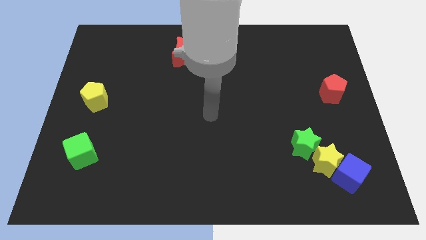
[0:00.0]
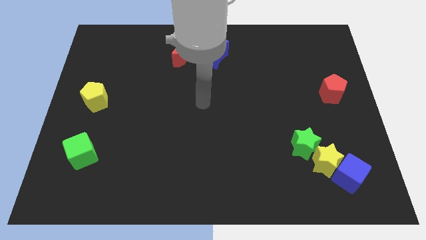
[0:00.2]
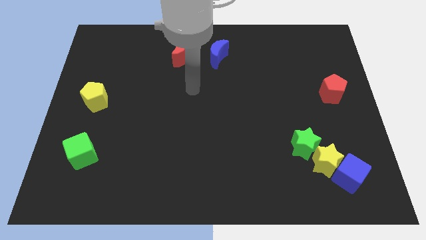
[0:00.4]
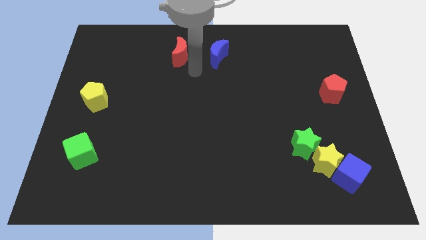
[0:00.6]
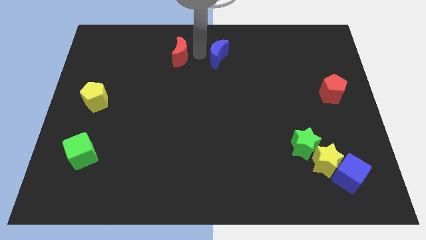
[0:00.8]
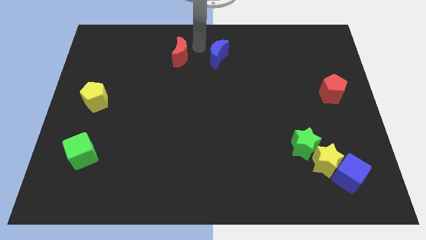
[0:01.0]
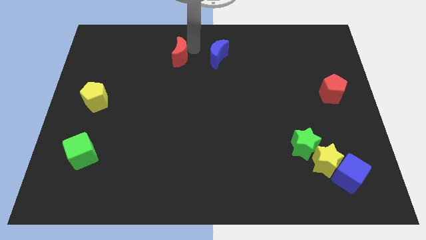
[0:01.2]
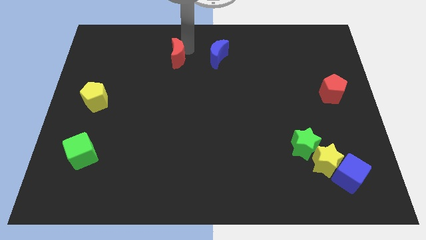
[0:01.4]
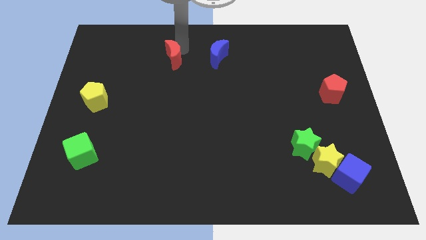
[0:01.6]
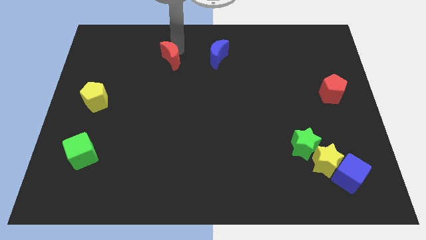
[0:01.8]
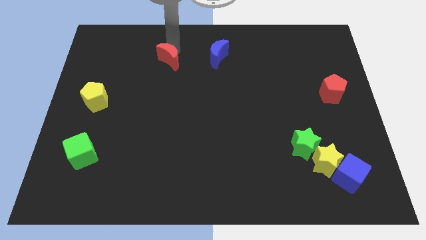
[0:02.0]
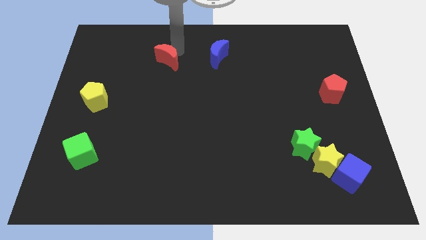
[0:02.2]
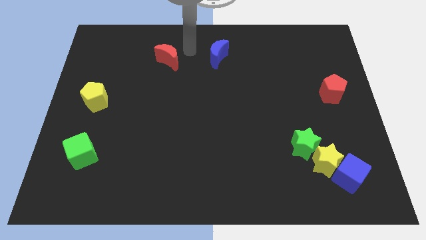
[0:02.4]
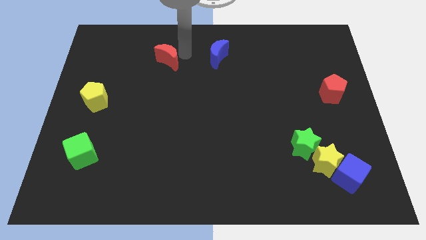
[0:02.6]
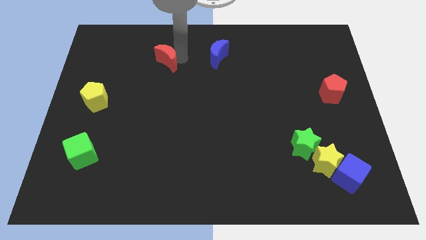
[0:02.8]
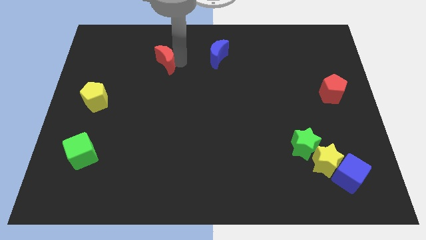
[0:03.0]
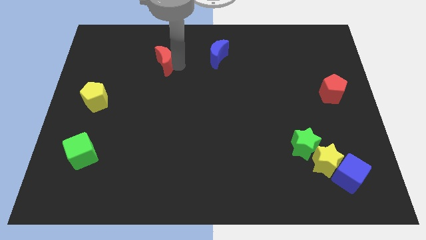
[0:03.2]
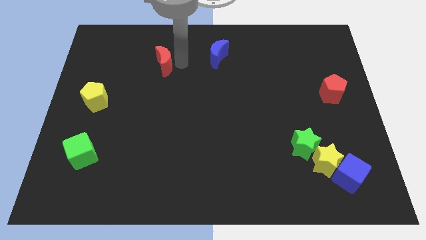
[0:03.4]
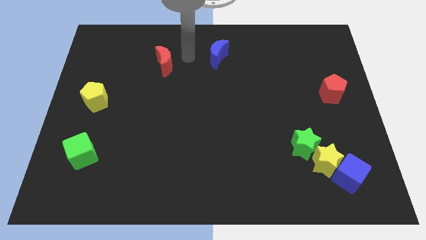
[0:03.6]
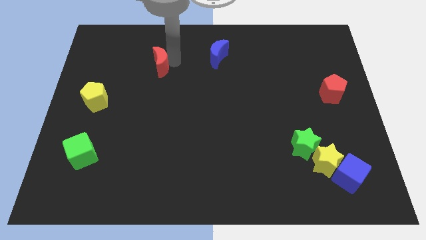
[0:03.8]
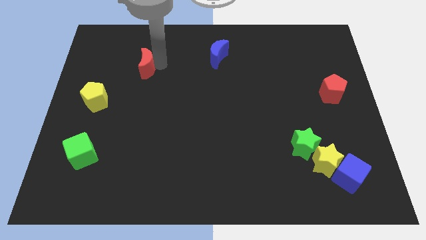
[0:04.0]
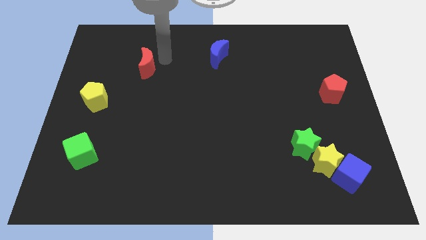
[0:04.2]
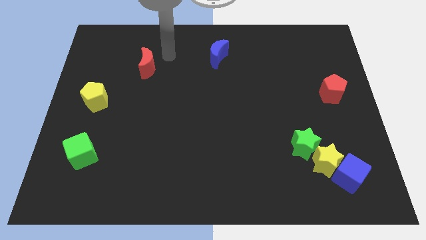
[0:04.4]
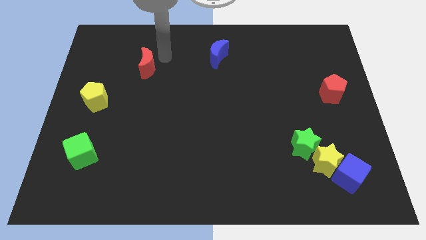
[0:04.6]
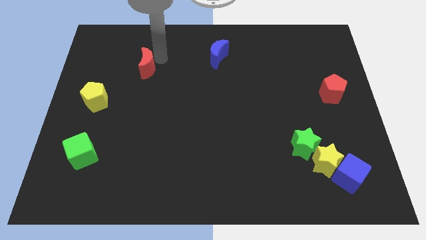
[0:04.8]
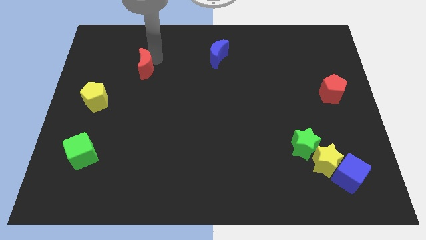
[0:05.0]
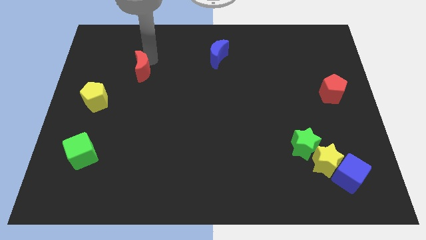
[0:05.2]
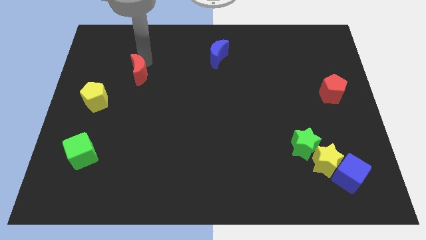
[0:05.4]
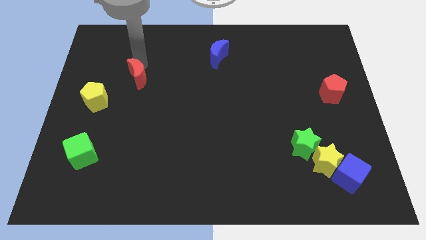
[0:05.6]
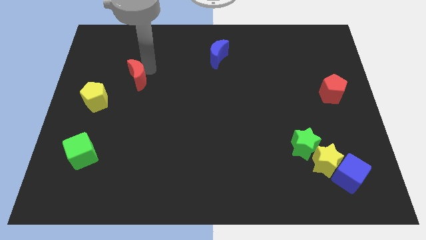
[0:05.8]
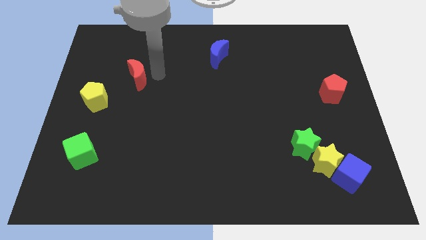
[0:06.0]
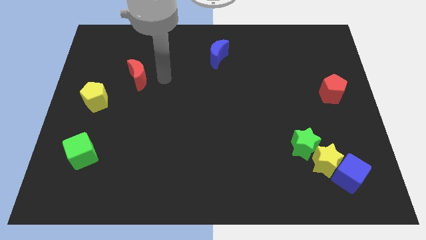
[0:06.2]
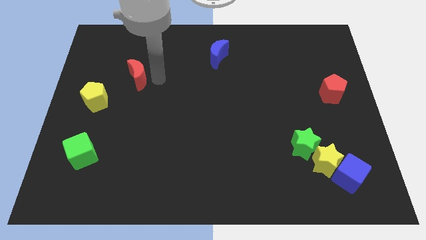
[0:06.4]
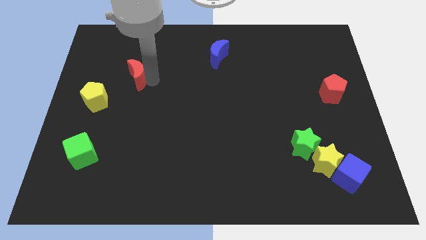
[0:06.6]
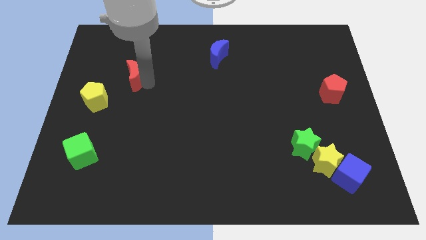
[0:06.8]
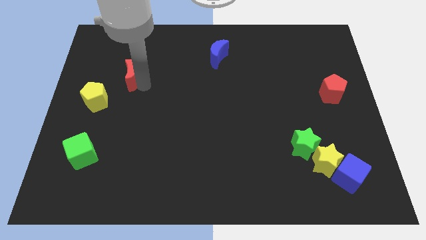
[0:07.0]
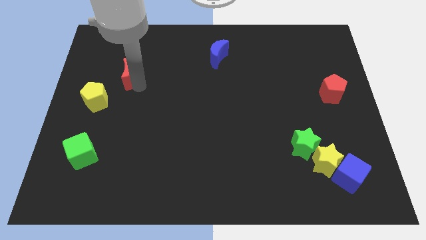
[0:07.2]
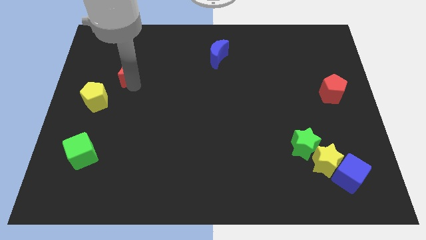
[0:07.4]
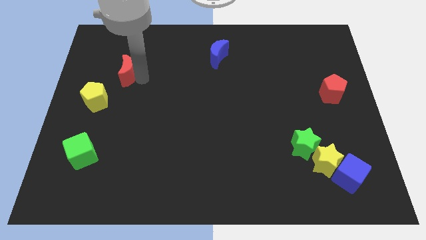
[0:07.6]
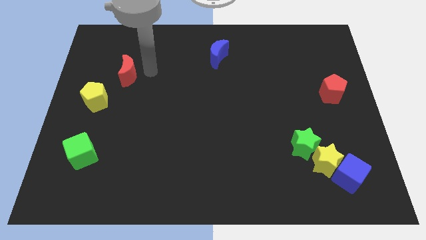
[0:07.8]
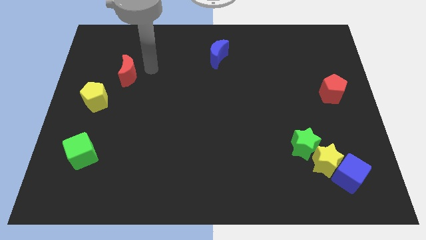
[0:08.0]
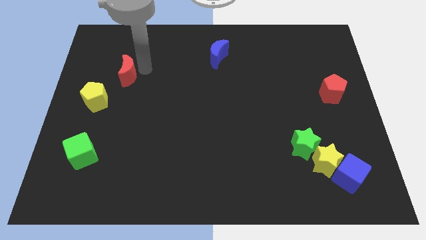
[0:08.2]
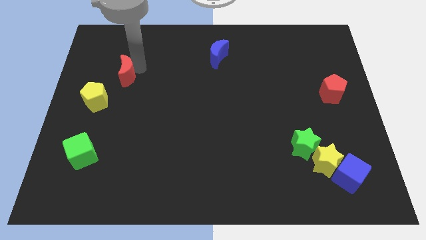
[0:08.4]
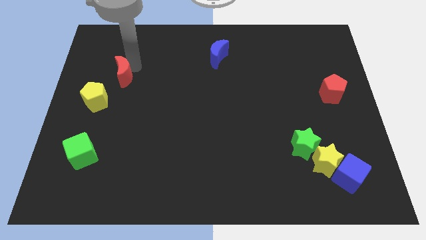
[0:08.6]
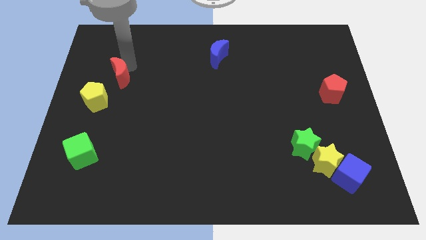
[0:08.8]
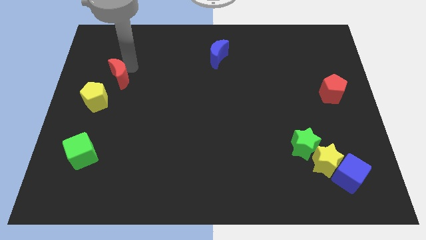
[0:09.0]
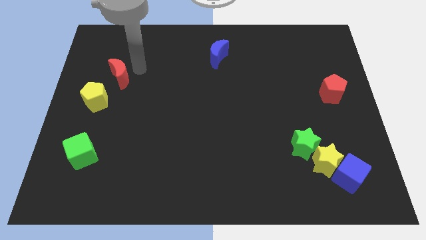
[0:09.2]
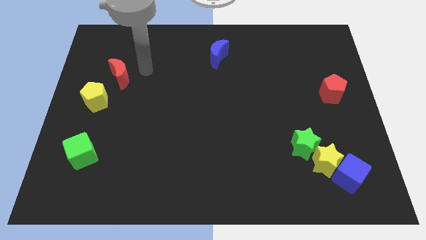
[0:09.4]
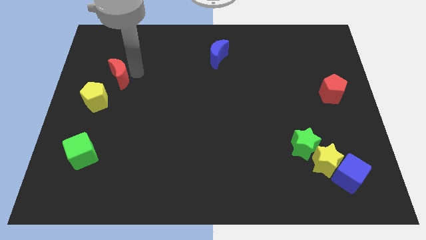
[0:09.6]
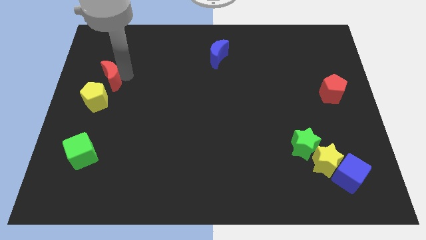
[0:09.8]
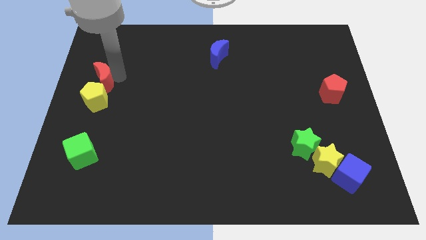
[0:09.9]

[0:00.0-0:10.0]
move the red moon to the center left

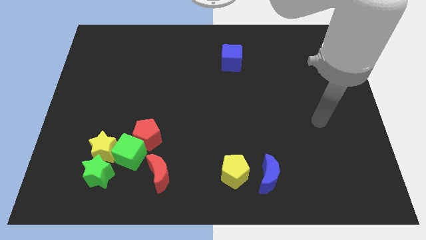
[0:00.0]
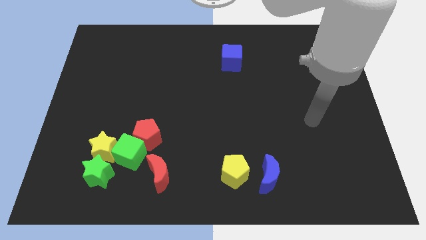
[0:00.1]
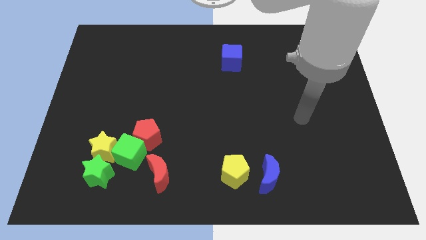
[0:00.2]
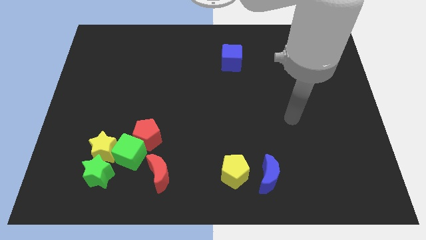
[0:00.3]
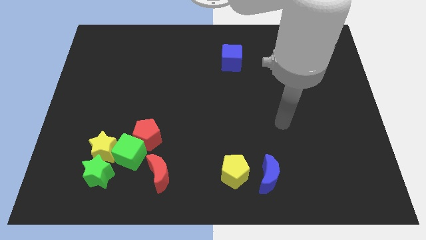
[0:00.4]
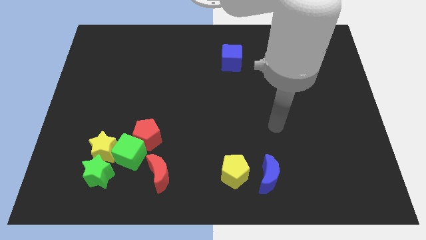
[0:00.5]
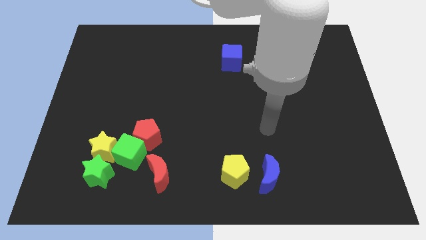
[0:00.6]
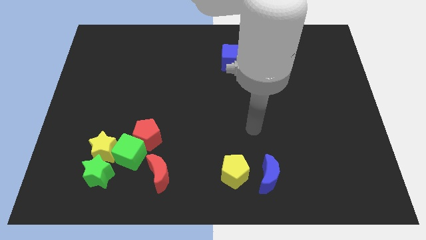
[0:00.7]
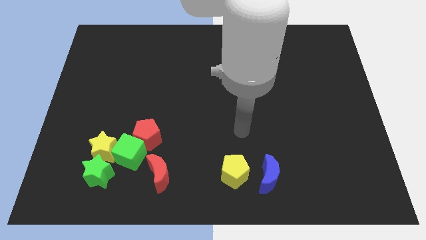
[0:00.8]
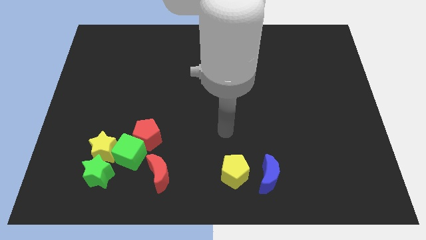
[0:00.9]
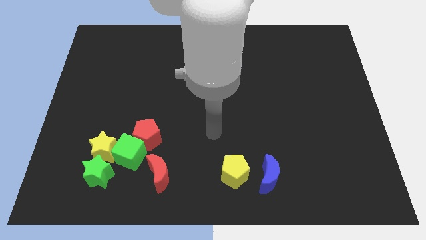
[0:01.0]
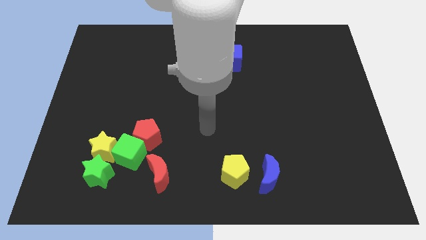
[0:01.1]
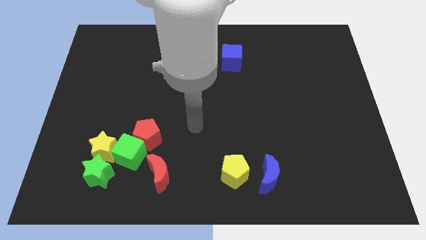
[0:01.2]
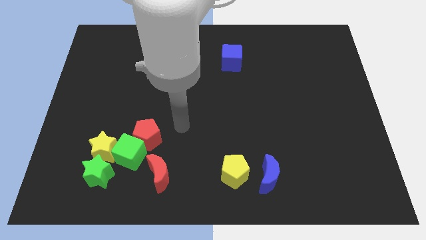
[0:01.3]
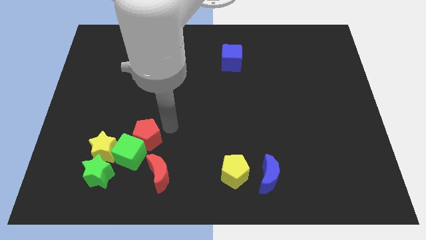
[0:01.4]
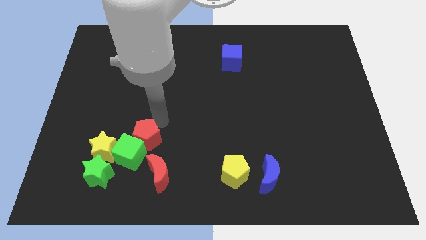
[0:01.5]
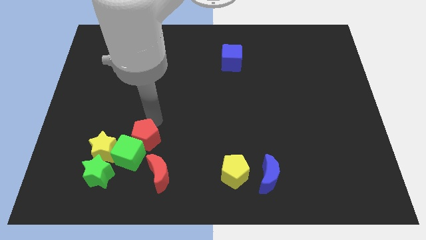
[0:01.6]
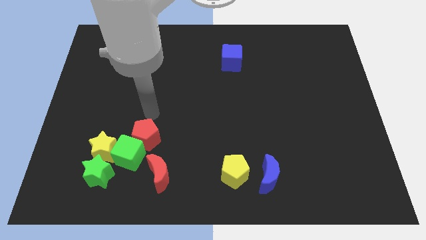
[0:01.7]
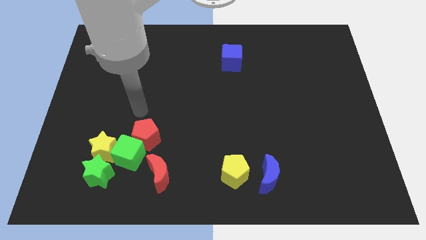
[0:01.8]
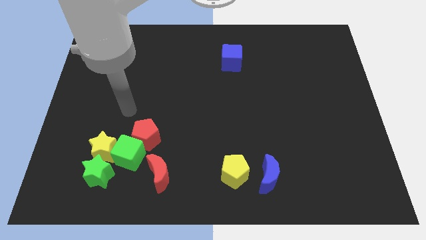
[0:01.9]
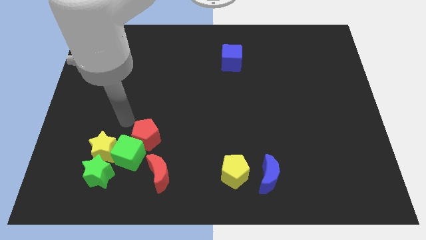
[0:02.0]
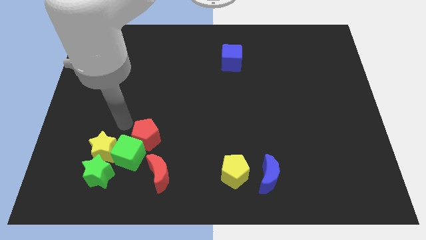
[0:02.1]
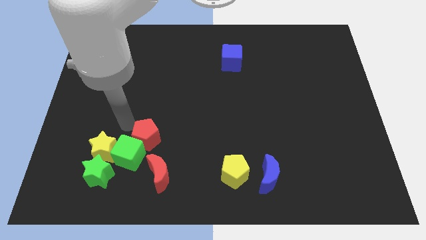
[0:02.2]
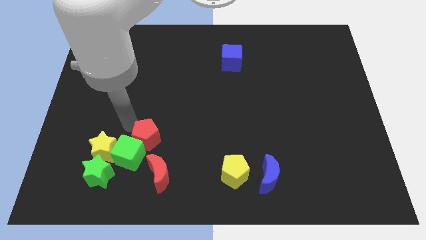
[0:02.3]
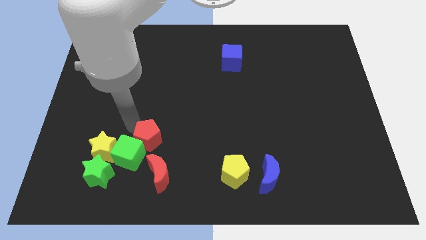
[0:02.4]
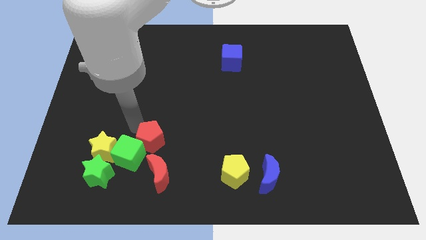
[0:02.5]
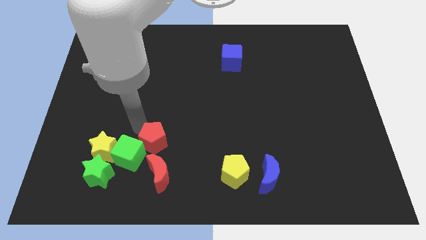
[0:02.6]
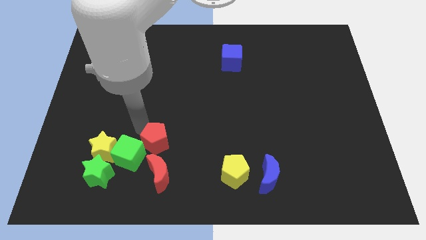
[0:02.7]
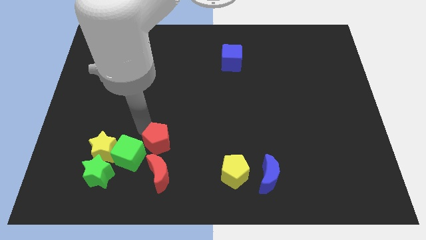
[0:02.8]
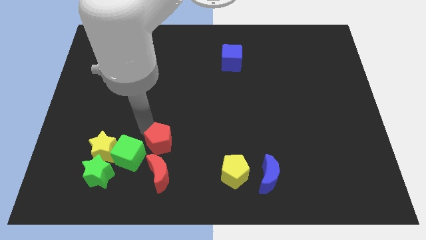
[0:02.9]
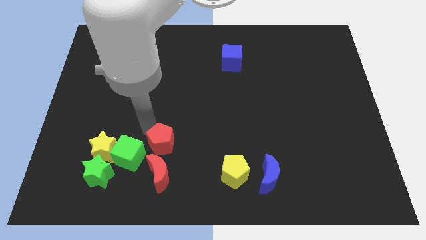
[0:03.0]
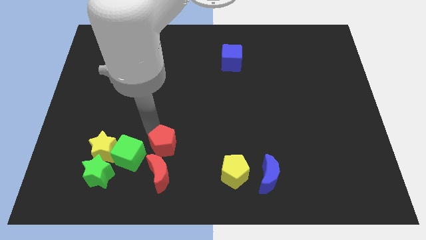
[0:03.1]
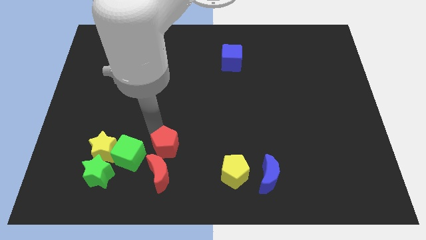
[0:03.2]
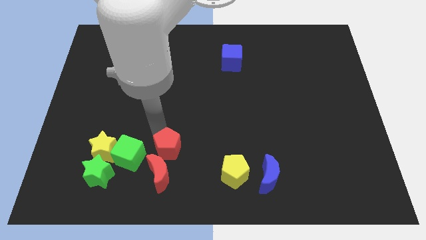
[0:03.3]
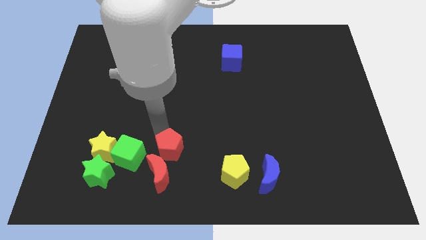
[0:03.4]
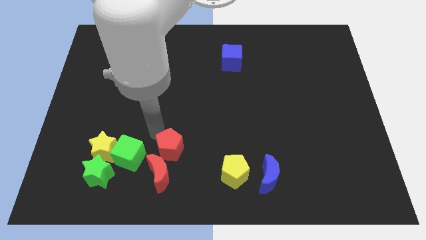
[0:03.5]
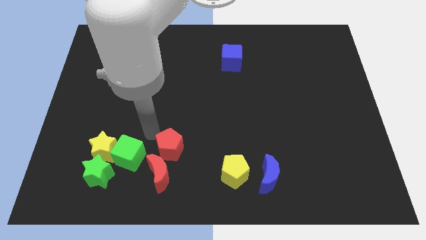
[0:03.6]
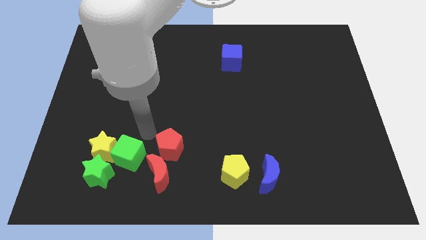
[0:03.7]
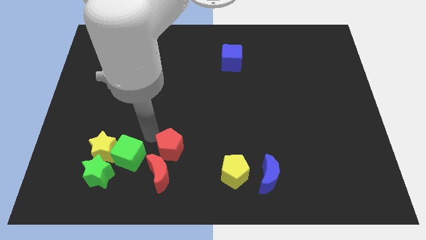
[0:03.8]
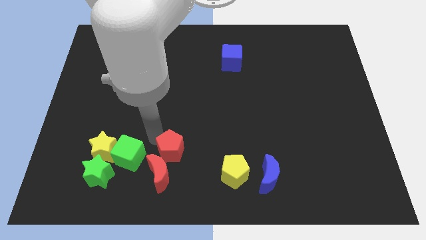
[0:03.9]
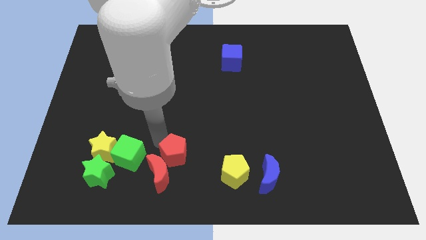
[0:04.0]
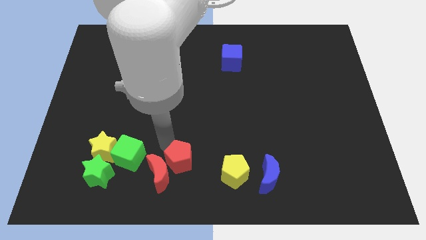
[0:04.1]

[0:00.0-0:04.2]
slide the red pentagon to the bottom
